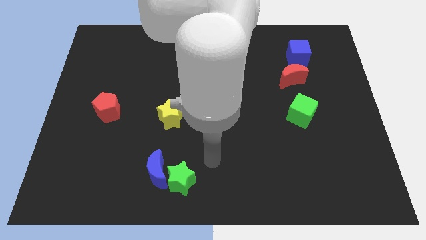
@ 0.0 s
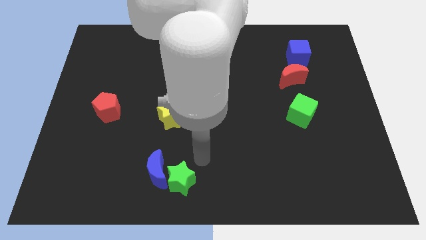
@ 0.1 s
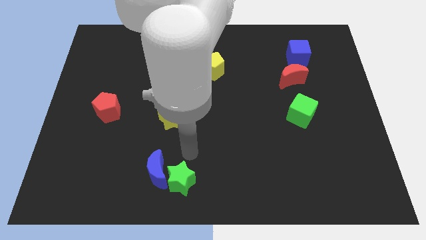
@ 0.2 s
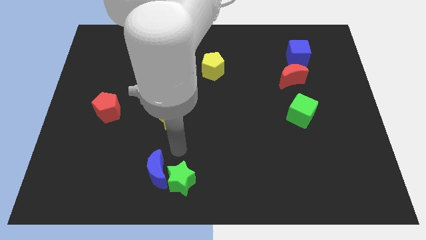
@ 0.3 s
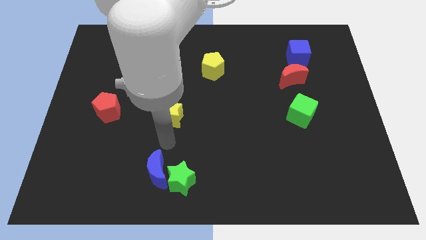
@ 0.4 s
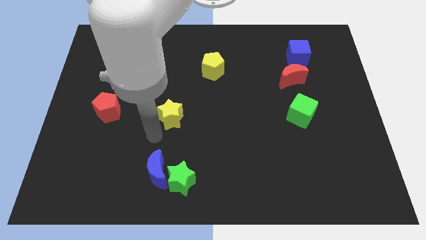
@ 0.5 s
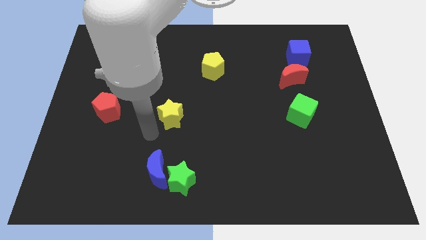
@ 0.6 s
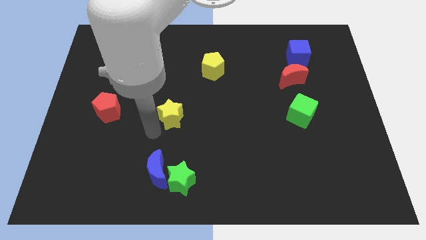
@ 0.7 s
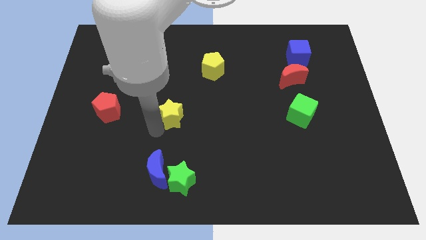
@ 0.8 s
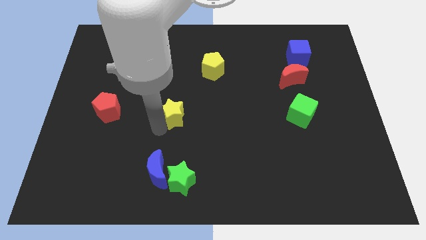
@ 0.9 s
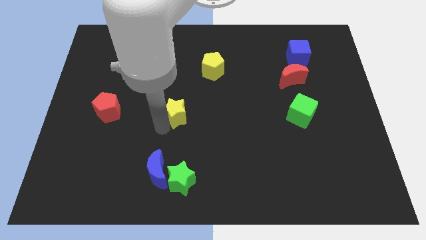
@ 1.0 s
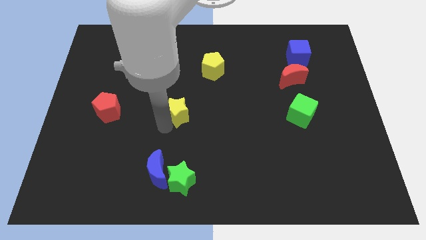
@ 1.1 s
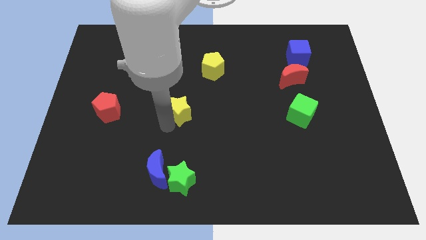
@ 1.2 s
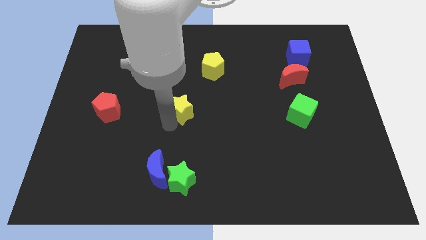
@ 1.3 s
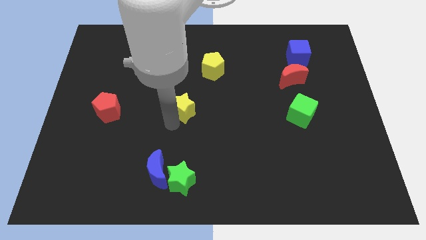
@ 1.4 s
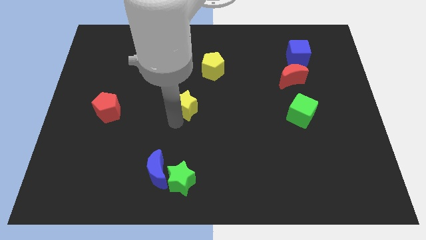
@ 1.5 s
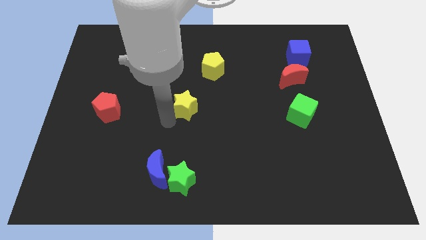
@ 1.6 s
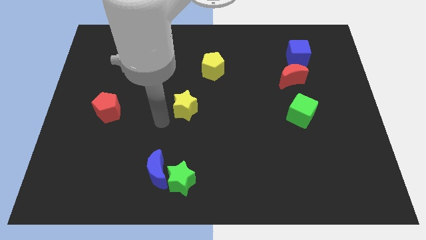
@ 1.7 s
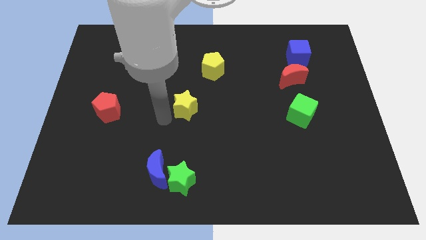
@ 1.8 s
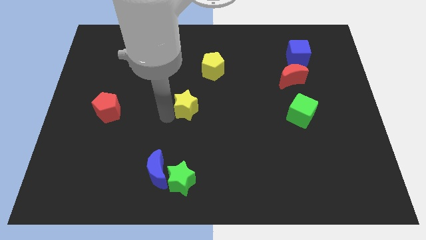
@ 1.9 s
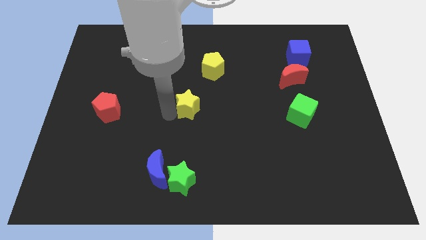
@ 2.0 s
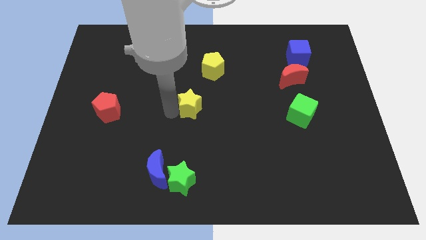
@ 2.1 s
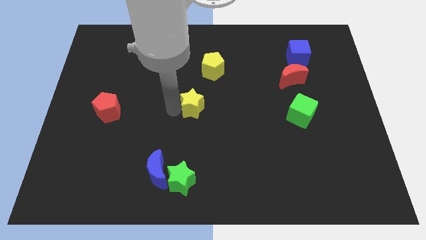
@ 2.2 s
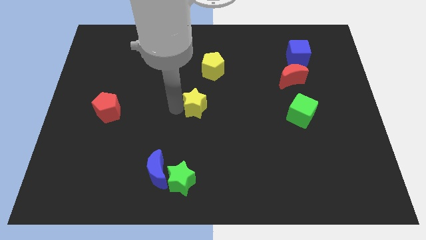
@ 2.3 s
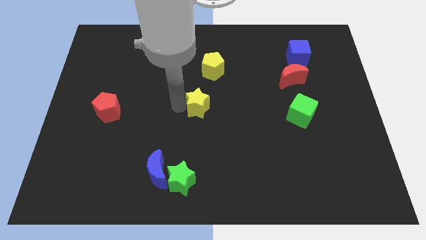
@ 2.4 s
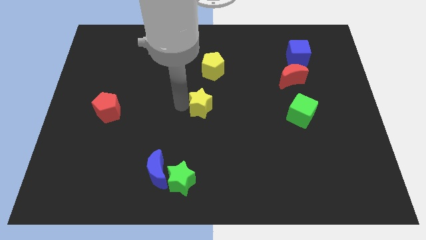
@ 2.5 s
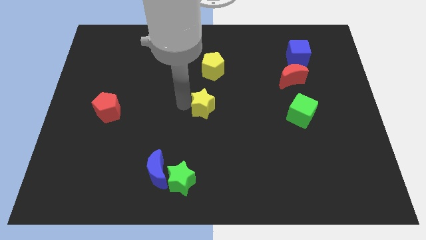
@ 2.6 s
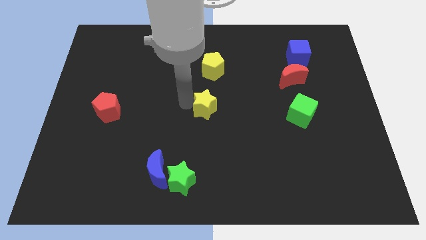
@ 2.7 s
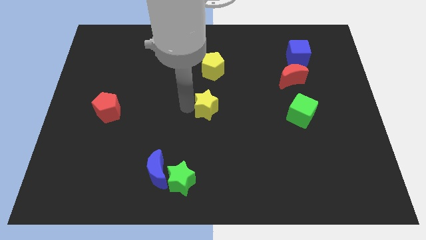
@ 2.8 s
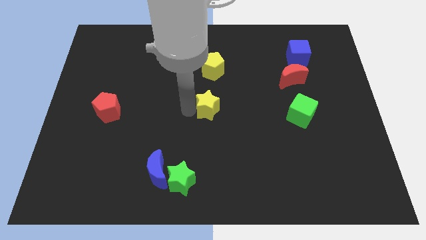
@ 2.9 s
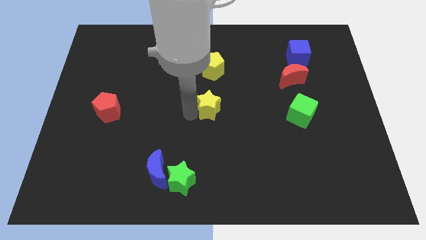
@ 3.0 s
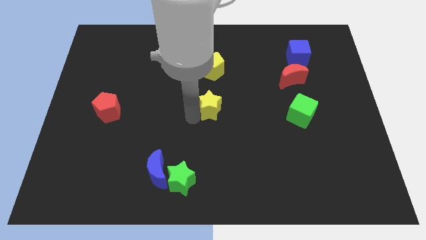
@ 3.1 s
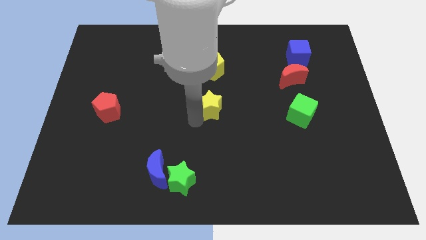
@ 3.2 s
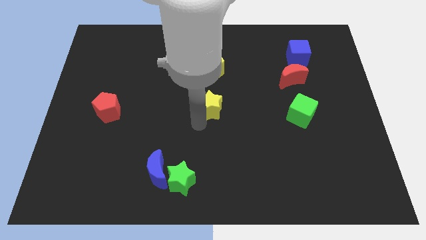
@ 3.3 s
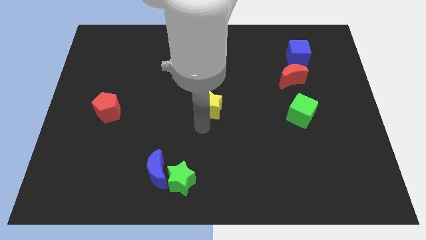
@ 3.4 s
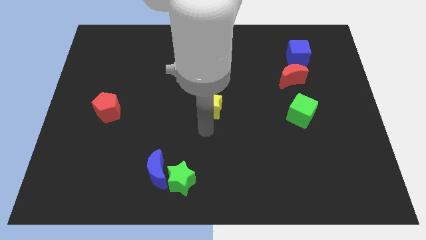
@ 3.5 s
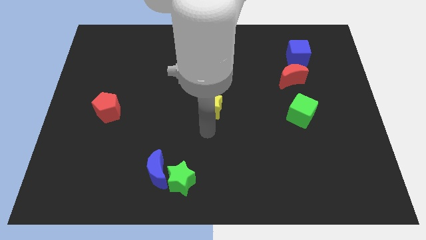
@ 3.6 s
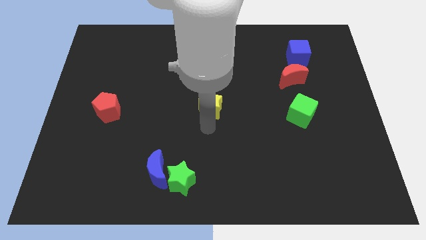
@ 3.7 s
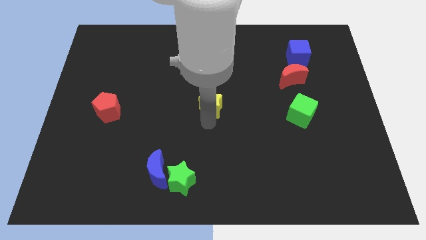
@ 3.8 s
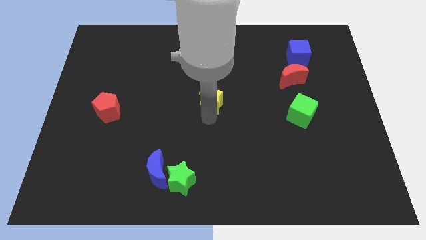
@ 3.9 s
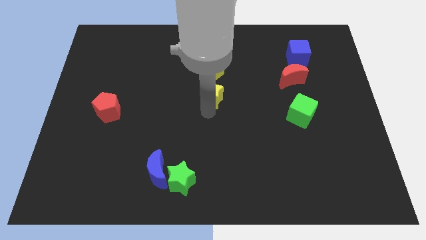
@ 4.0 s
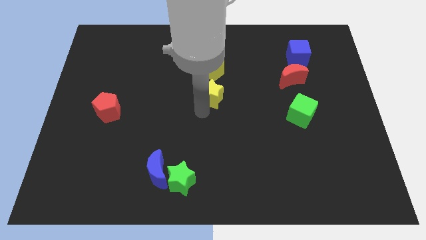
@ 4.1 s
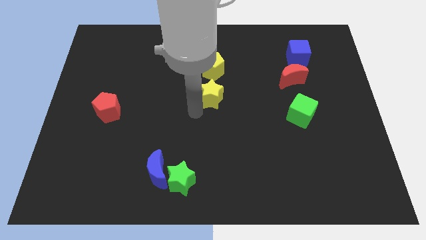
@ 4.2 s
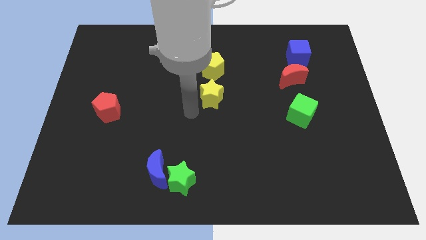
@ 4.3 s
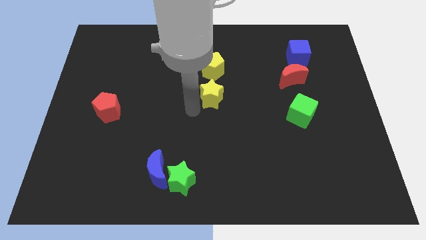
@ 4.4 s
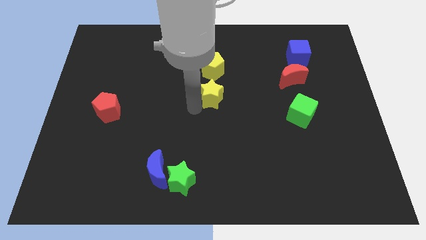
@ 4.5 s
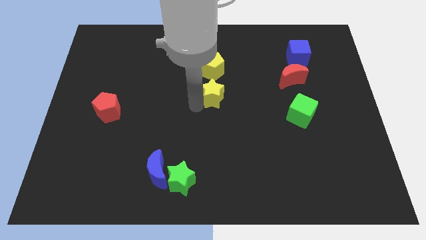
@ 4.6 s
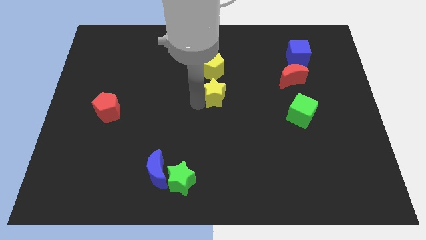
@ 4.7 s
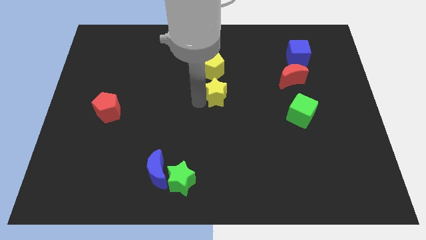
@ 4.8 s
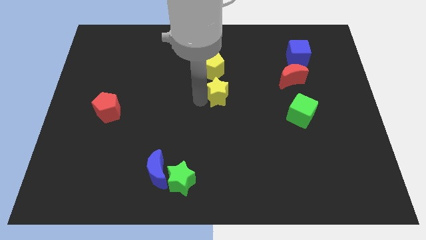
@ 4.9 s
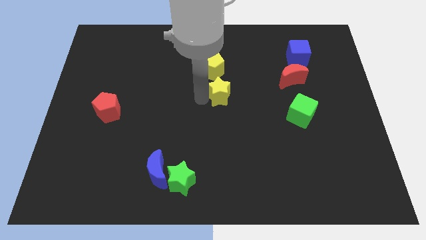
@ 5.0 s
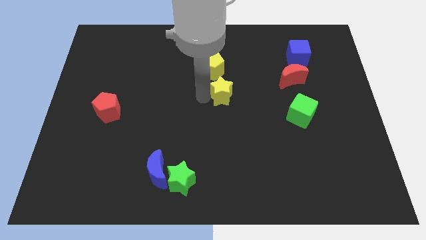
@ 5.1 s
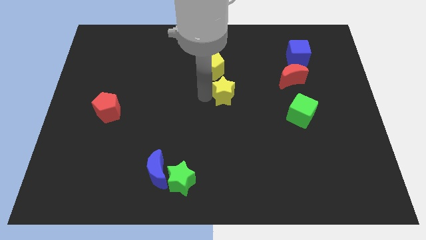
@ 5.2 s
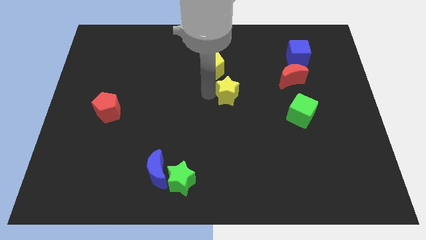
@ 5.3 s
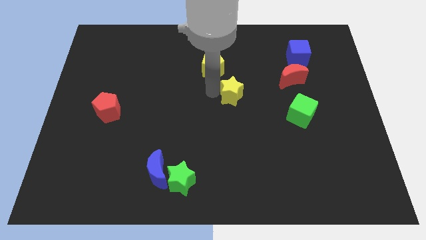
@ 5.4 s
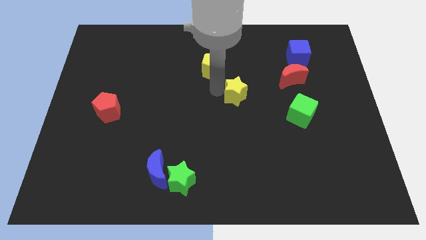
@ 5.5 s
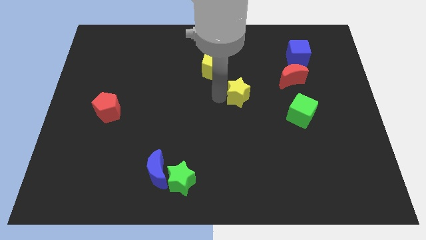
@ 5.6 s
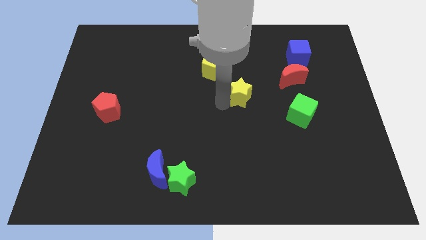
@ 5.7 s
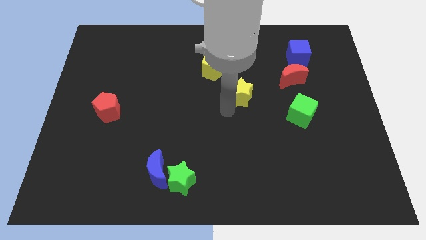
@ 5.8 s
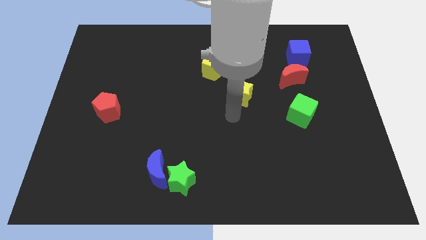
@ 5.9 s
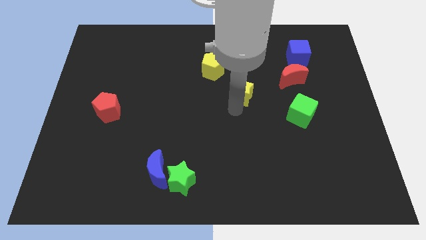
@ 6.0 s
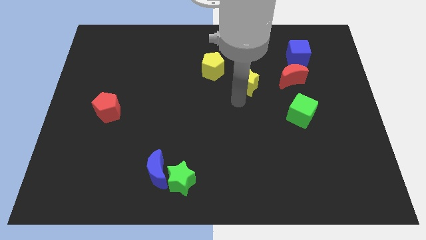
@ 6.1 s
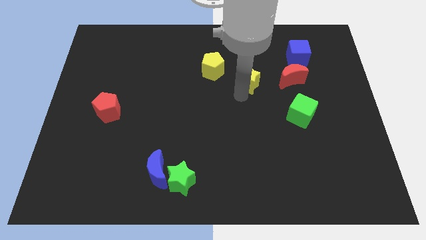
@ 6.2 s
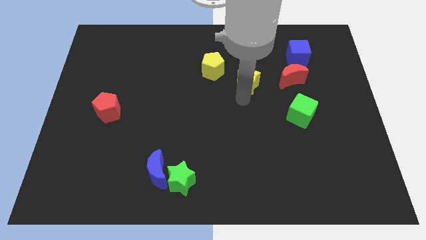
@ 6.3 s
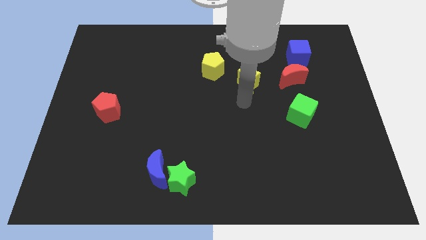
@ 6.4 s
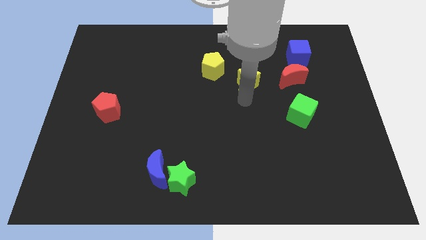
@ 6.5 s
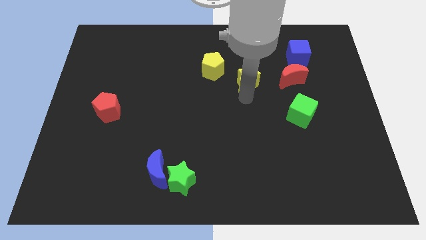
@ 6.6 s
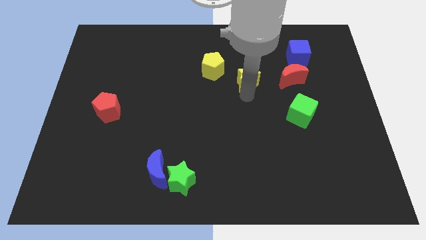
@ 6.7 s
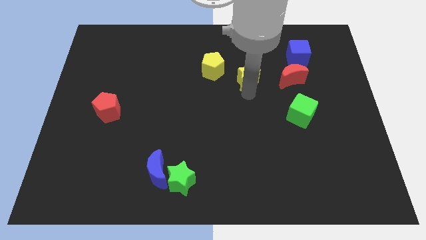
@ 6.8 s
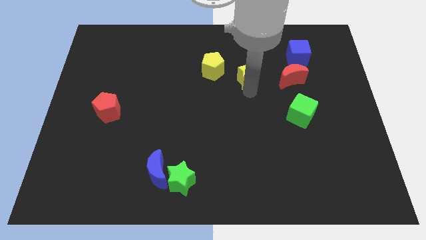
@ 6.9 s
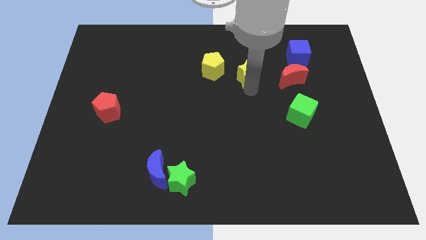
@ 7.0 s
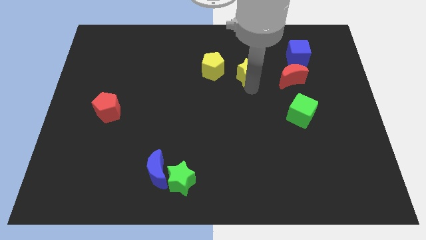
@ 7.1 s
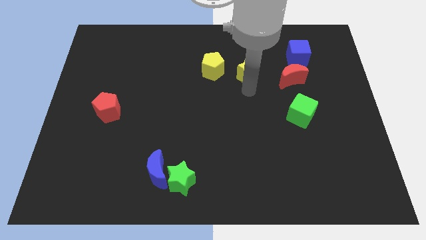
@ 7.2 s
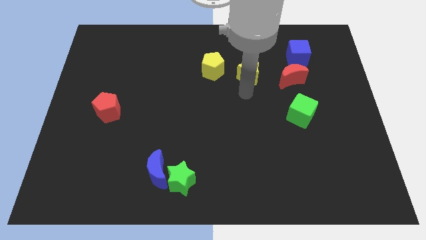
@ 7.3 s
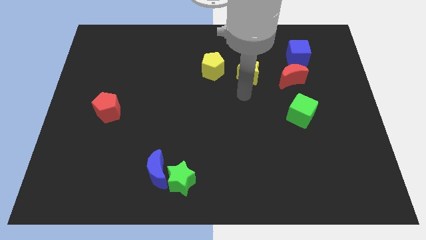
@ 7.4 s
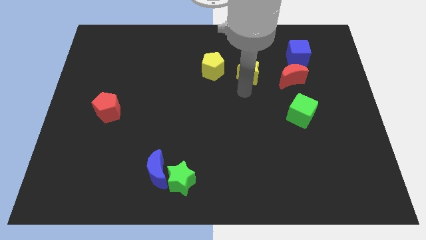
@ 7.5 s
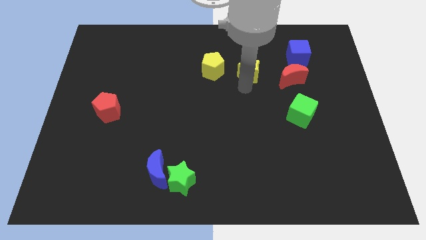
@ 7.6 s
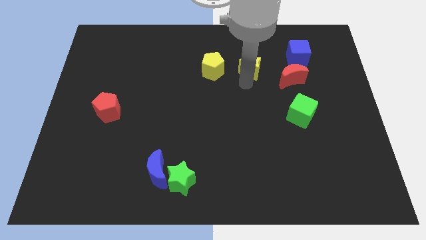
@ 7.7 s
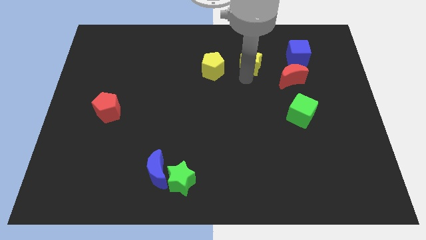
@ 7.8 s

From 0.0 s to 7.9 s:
slide the yellow star just left of the blue cube
